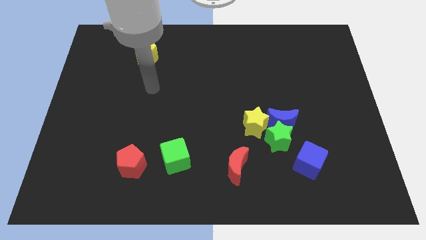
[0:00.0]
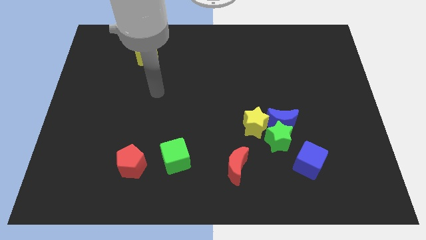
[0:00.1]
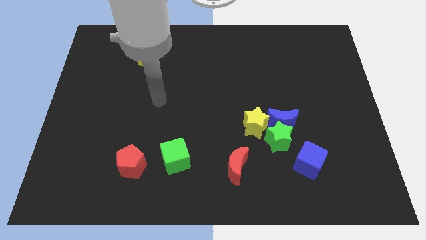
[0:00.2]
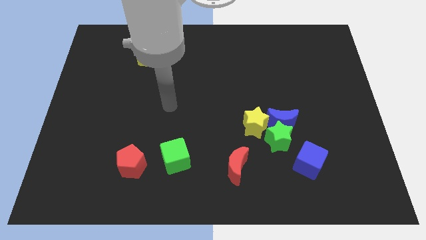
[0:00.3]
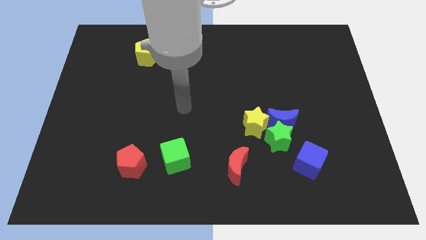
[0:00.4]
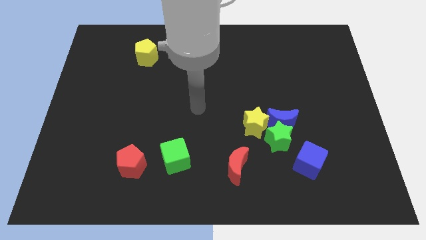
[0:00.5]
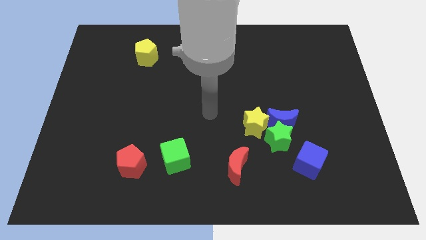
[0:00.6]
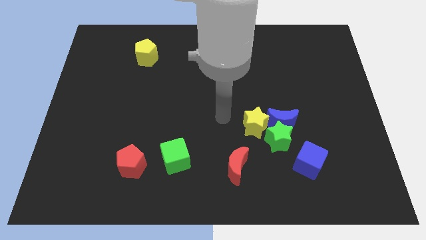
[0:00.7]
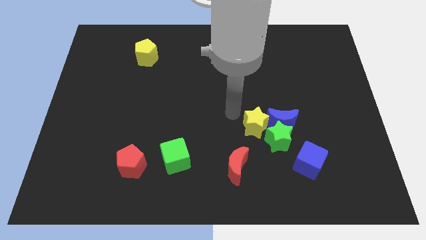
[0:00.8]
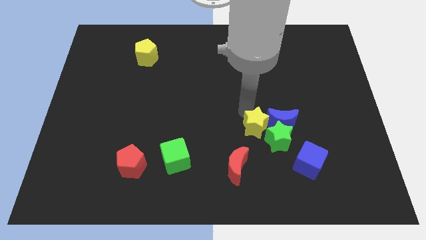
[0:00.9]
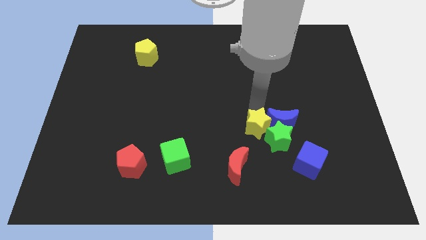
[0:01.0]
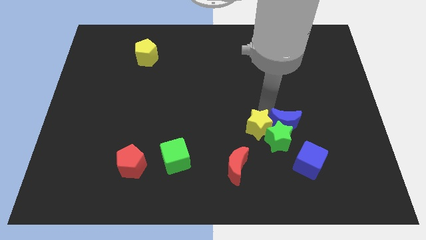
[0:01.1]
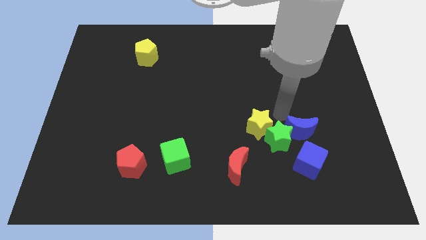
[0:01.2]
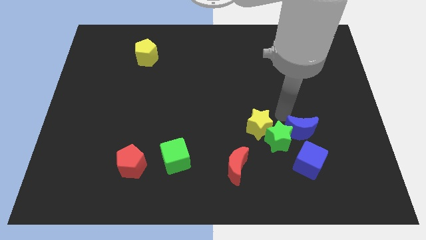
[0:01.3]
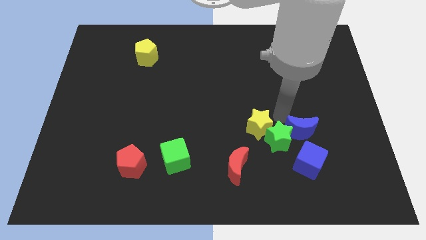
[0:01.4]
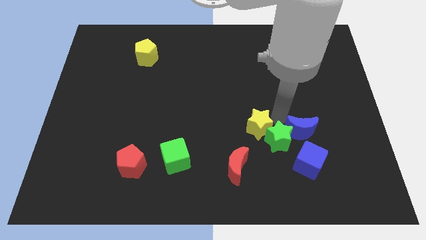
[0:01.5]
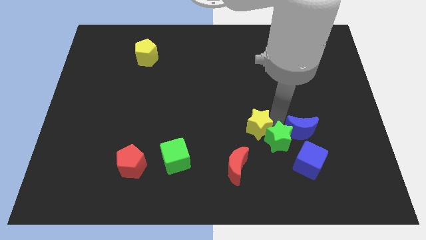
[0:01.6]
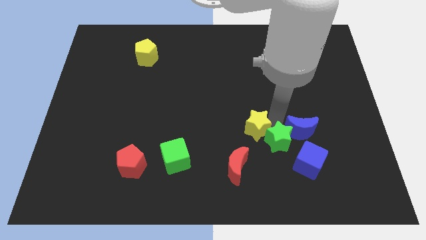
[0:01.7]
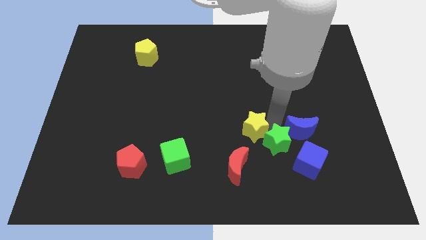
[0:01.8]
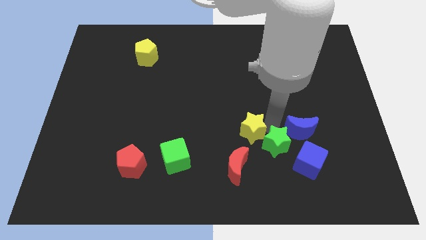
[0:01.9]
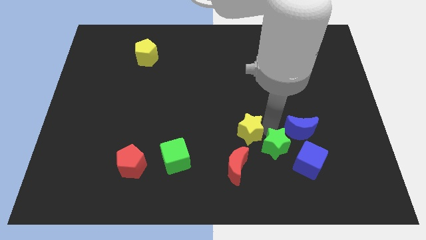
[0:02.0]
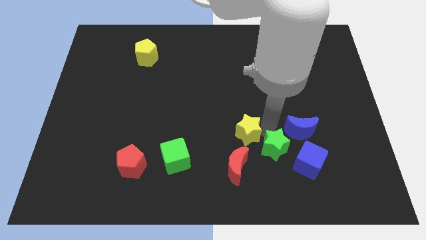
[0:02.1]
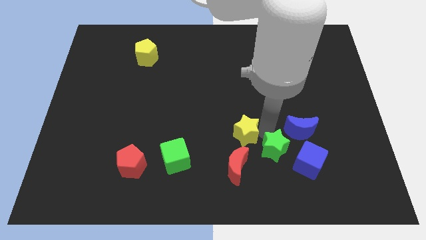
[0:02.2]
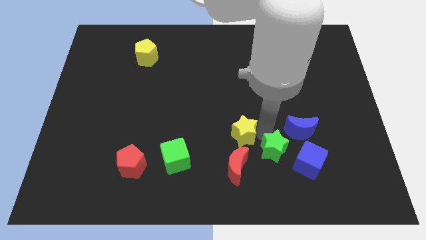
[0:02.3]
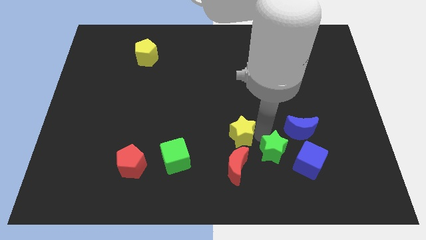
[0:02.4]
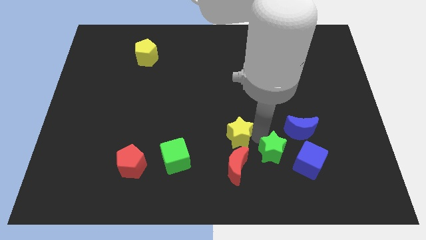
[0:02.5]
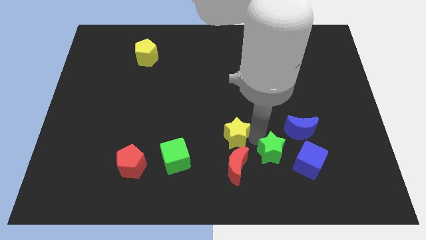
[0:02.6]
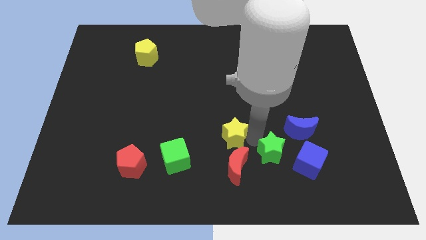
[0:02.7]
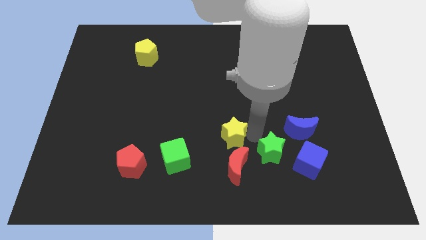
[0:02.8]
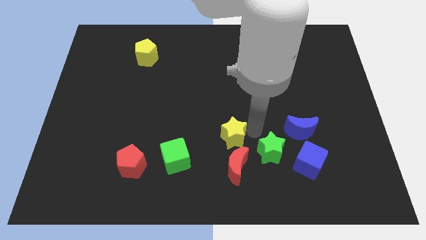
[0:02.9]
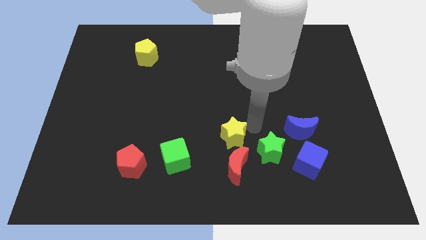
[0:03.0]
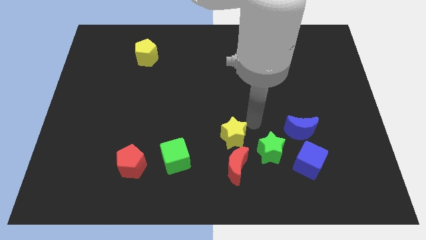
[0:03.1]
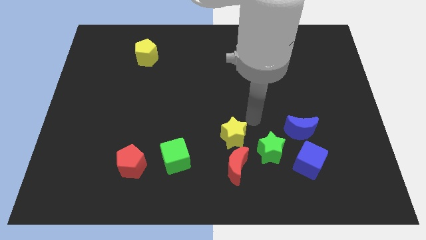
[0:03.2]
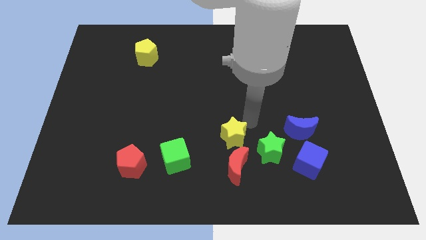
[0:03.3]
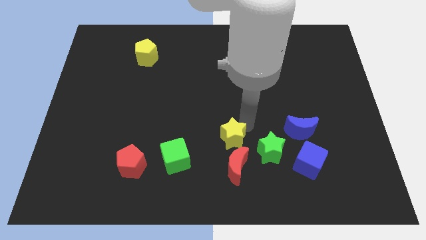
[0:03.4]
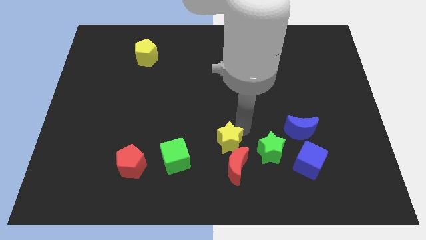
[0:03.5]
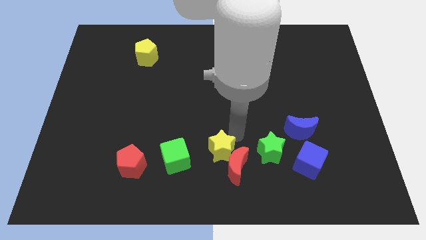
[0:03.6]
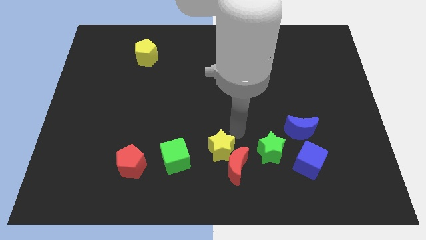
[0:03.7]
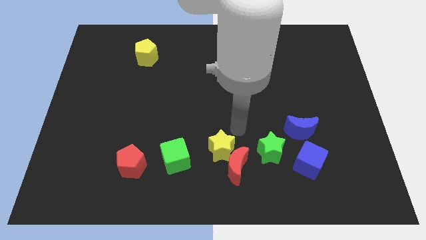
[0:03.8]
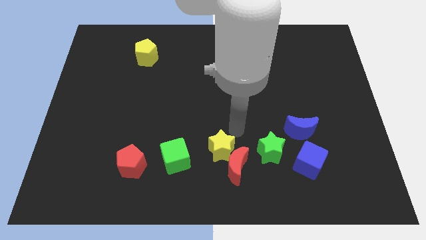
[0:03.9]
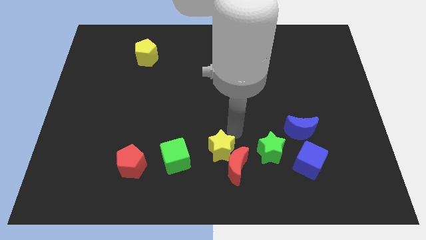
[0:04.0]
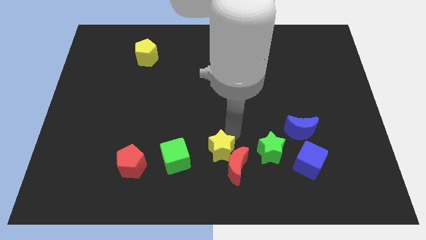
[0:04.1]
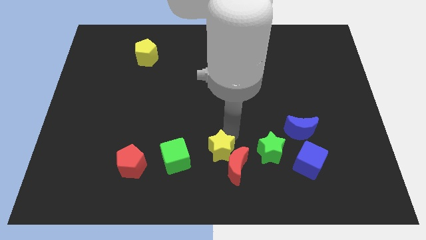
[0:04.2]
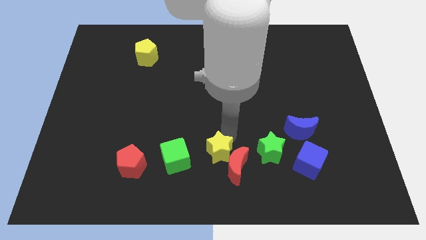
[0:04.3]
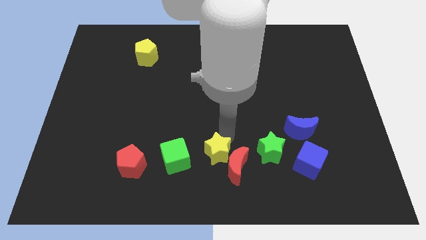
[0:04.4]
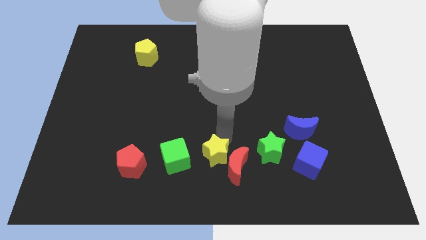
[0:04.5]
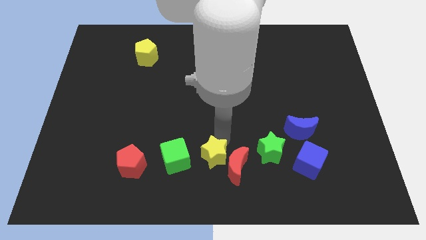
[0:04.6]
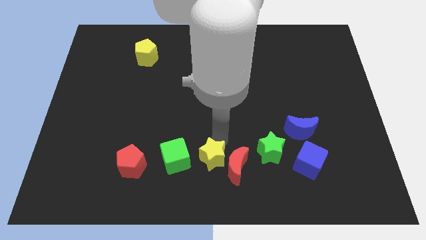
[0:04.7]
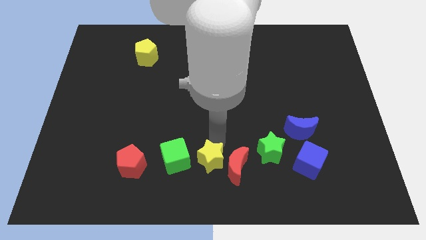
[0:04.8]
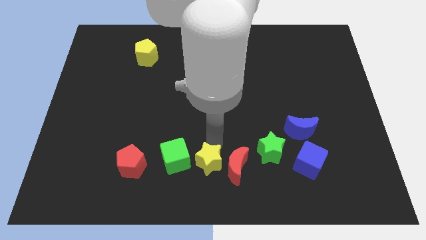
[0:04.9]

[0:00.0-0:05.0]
put the yellow star to the bottom right of the green cube

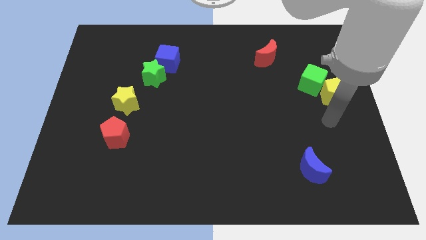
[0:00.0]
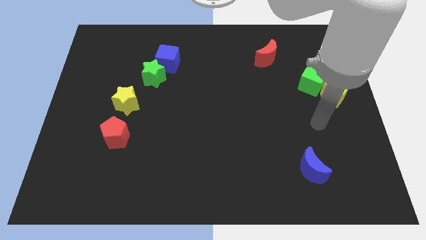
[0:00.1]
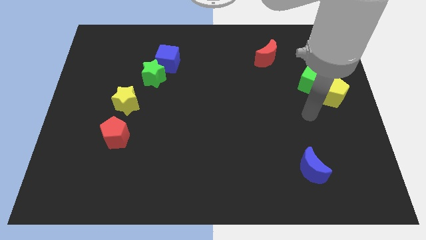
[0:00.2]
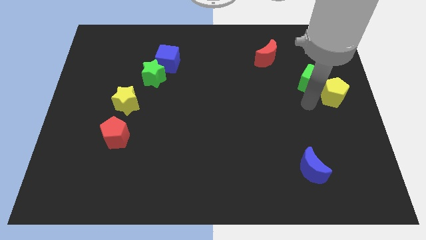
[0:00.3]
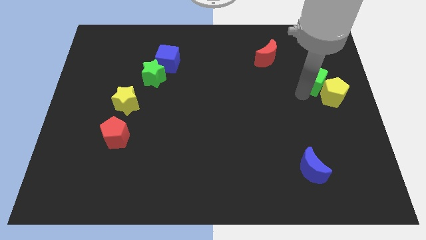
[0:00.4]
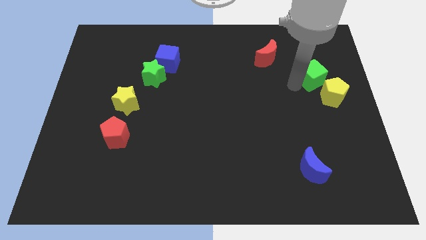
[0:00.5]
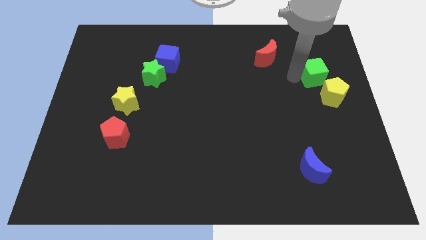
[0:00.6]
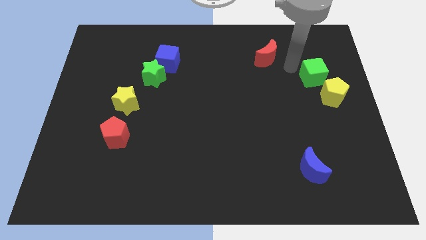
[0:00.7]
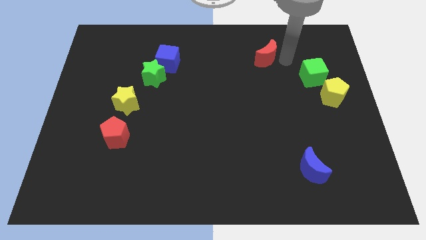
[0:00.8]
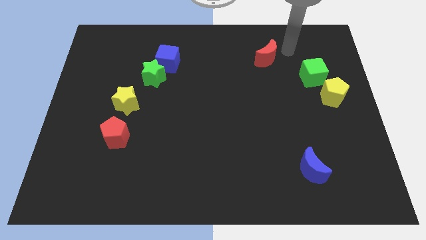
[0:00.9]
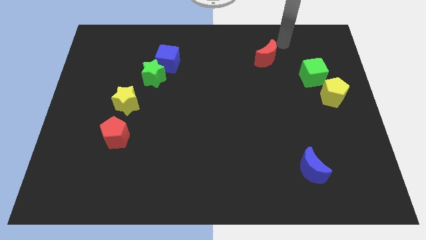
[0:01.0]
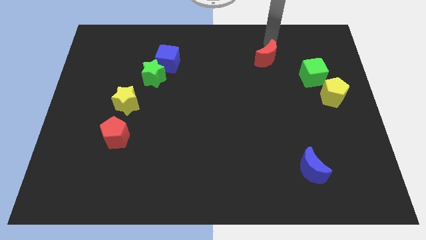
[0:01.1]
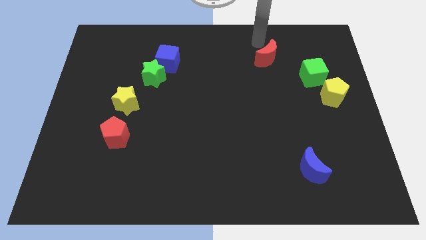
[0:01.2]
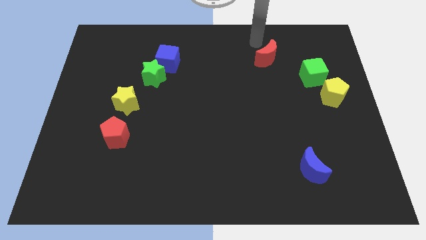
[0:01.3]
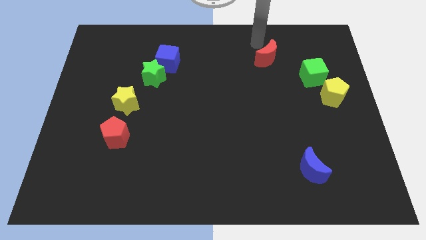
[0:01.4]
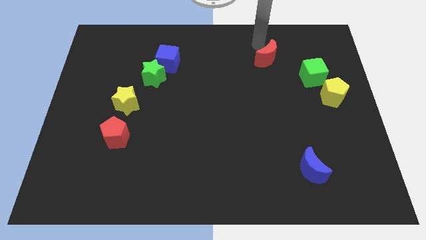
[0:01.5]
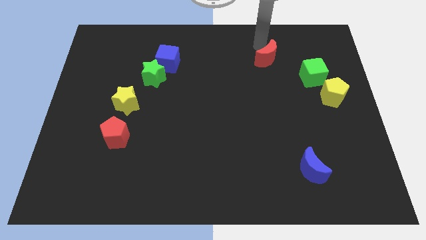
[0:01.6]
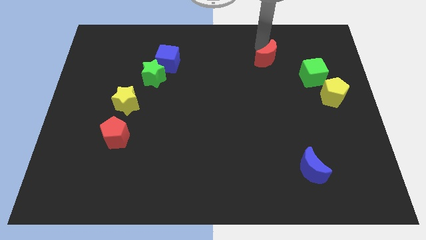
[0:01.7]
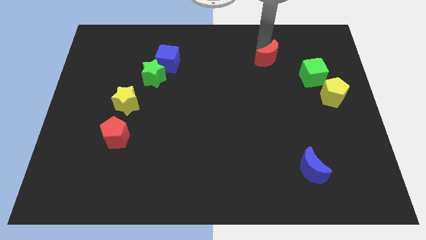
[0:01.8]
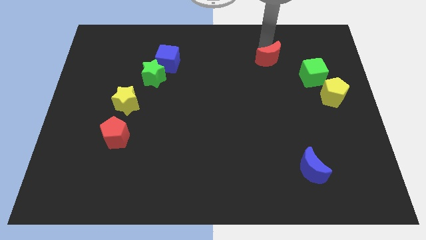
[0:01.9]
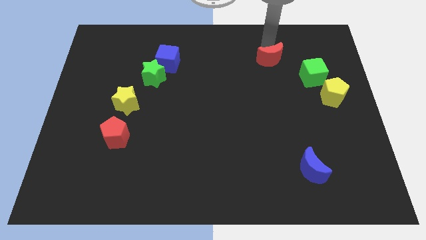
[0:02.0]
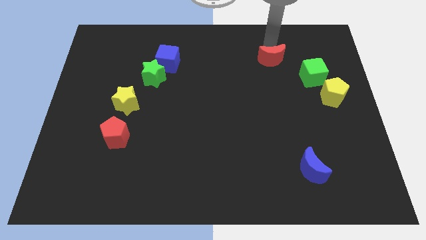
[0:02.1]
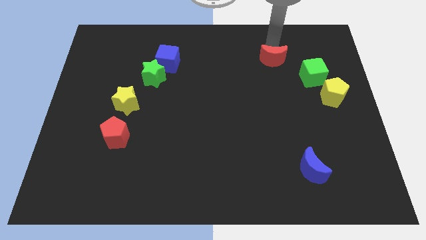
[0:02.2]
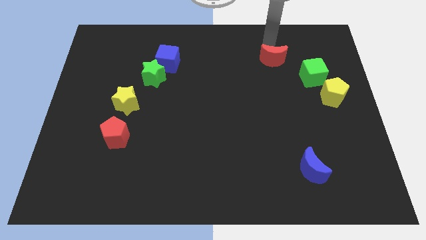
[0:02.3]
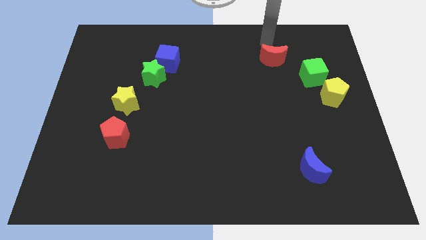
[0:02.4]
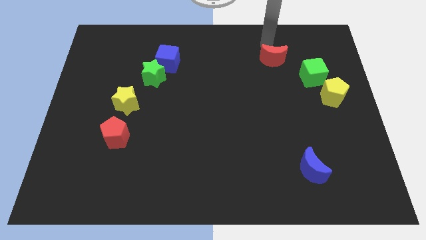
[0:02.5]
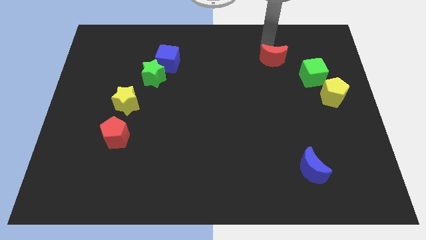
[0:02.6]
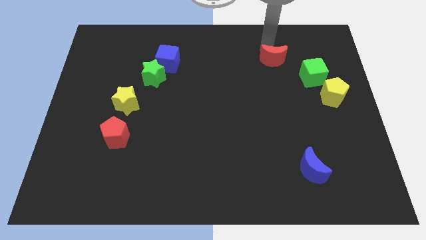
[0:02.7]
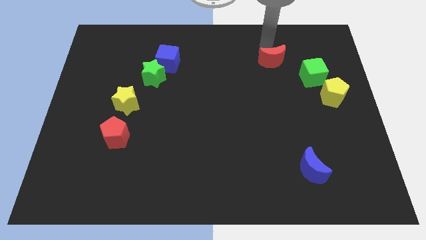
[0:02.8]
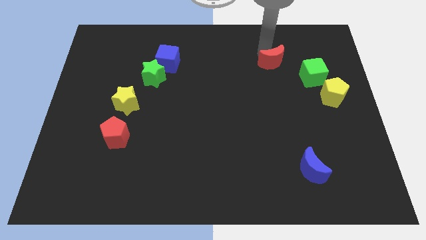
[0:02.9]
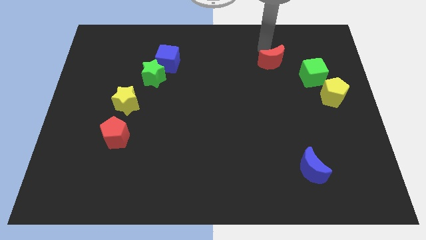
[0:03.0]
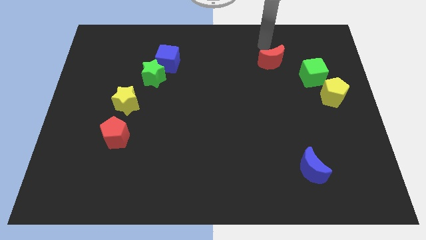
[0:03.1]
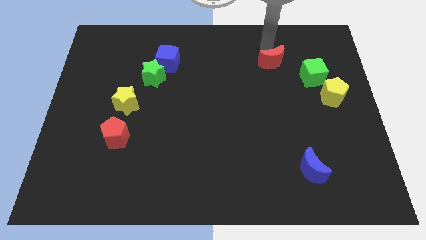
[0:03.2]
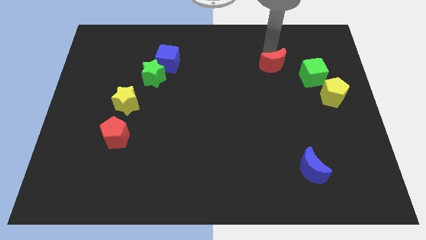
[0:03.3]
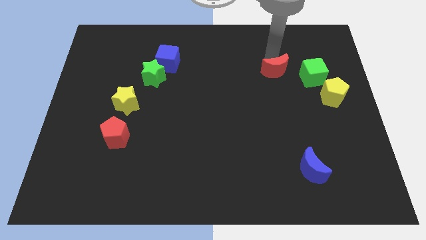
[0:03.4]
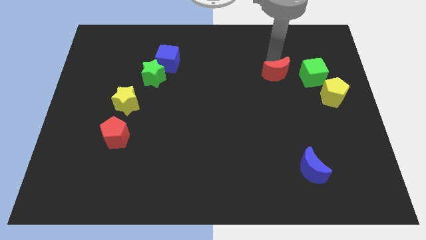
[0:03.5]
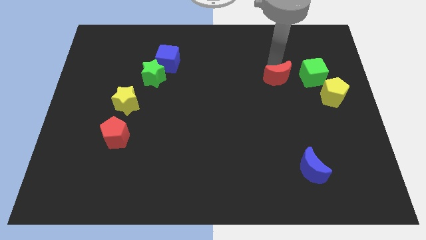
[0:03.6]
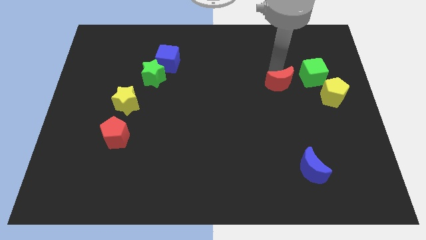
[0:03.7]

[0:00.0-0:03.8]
put the red moon to the left side of the yellow pentagon
